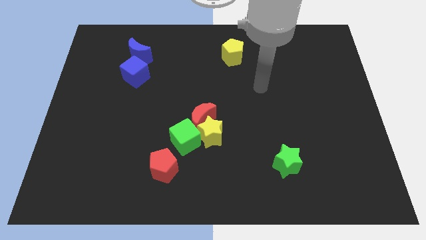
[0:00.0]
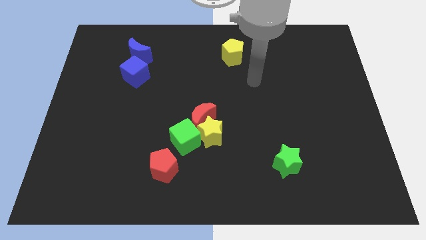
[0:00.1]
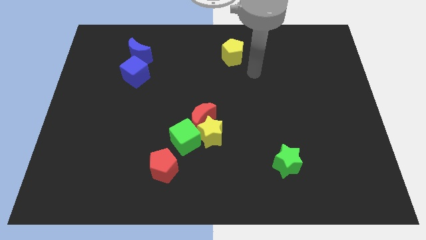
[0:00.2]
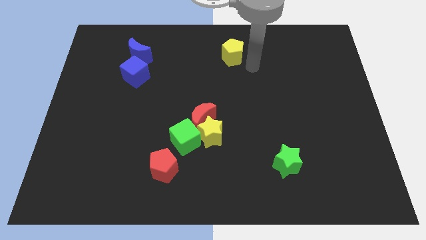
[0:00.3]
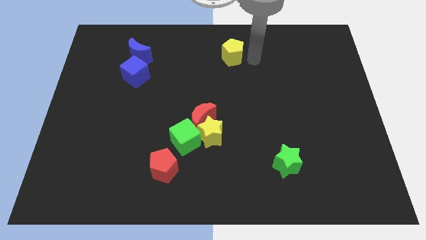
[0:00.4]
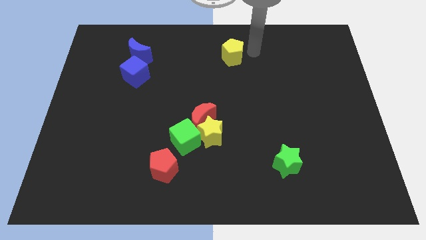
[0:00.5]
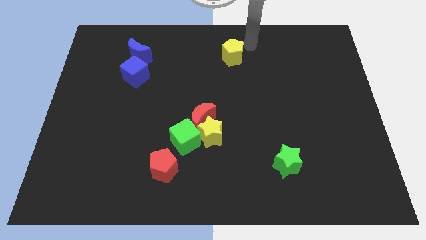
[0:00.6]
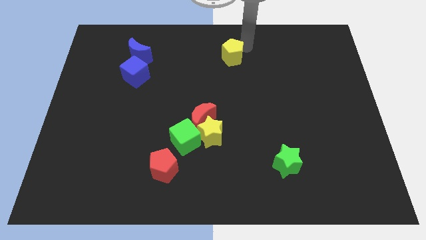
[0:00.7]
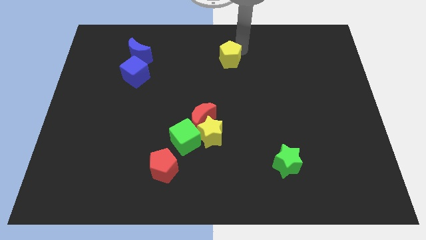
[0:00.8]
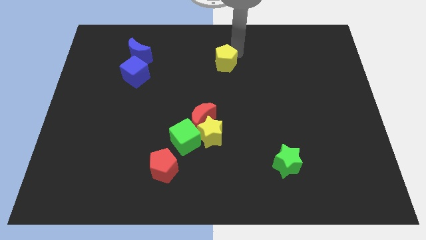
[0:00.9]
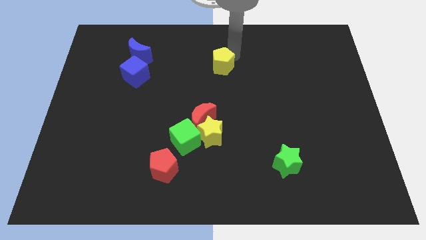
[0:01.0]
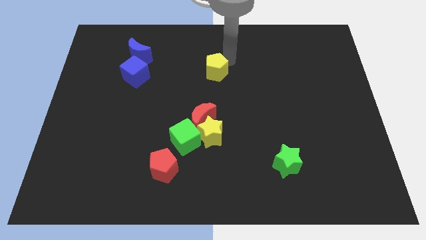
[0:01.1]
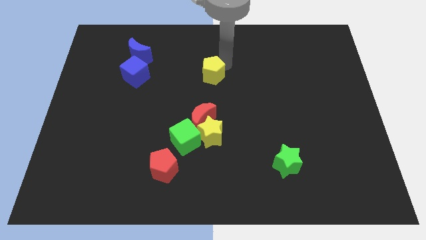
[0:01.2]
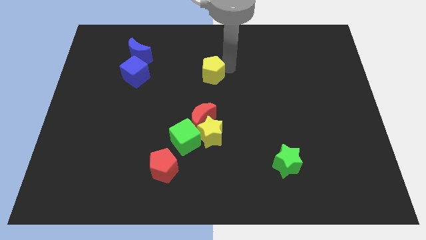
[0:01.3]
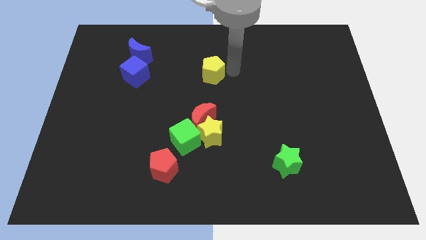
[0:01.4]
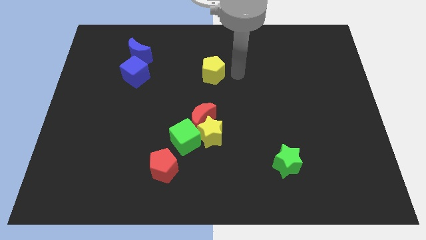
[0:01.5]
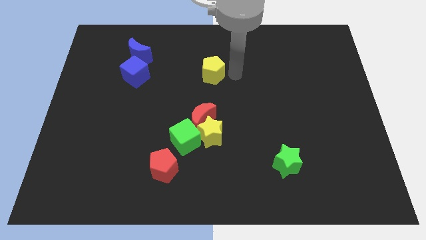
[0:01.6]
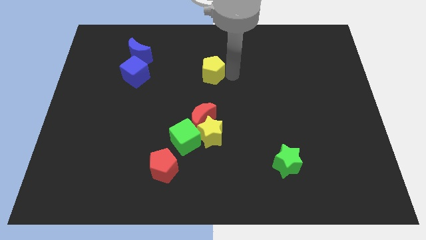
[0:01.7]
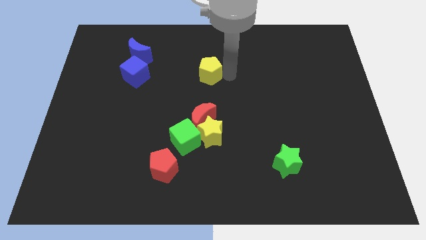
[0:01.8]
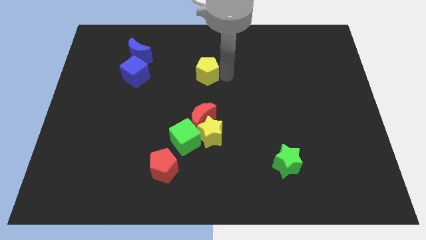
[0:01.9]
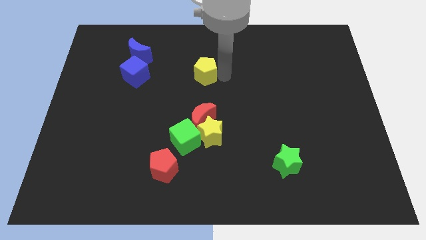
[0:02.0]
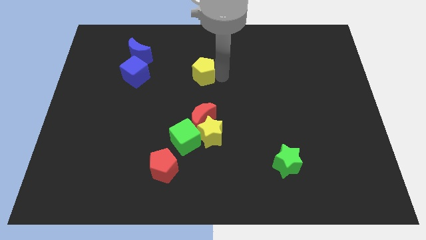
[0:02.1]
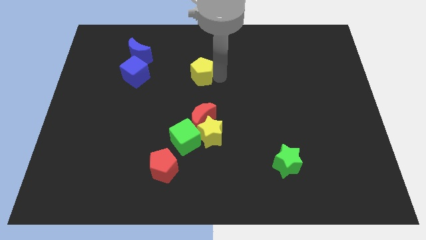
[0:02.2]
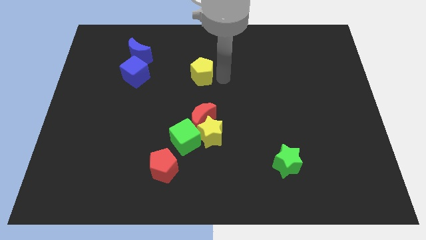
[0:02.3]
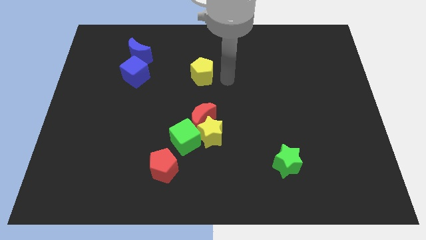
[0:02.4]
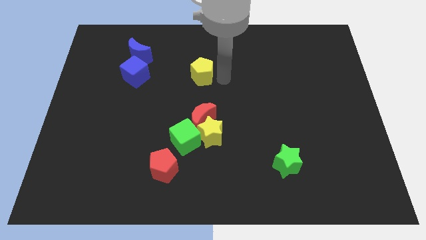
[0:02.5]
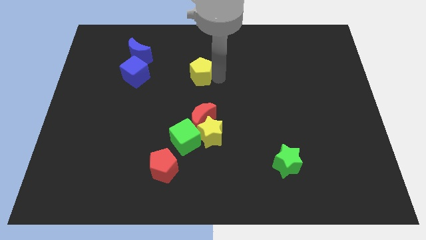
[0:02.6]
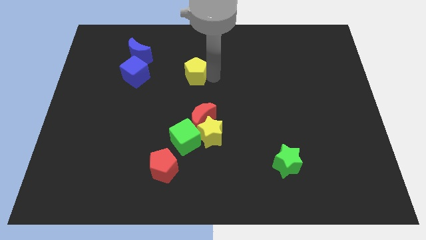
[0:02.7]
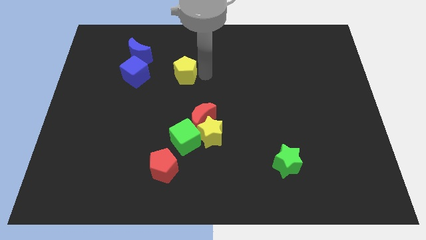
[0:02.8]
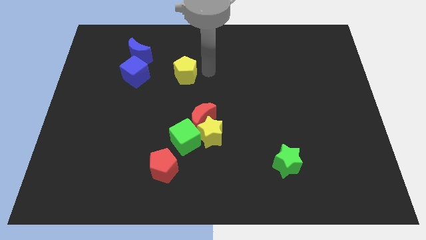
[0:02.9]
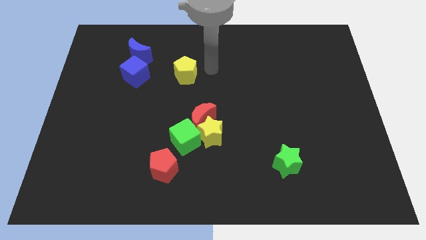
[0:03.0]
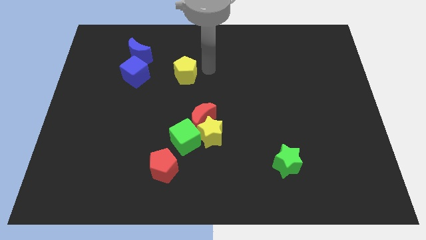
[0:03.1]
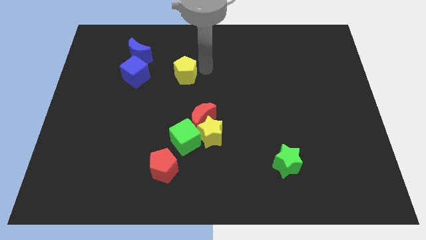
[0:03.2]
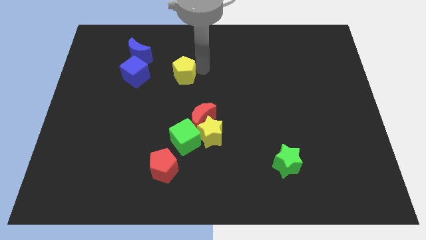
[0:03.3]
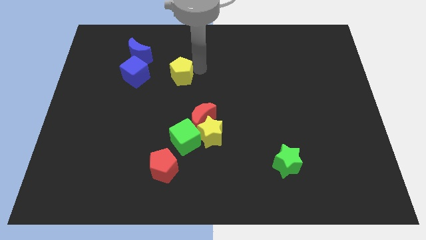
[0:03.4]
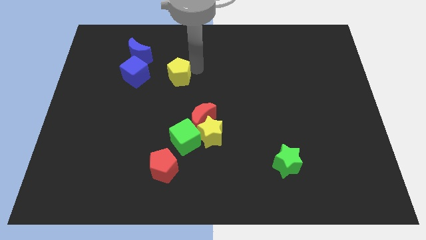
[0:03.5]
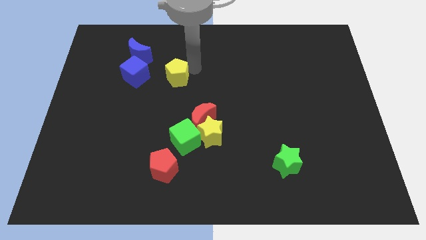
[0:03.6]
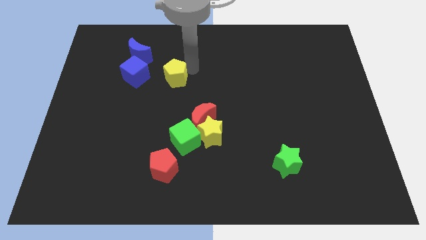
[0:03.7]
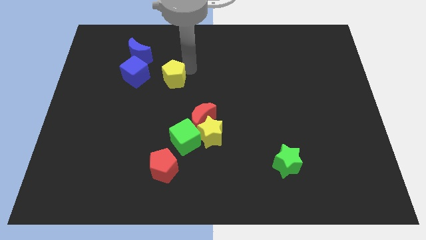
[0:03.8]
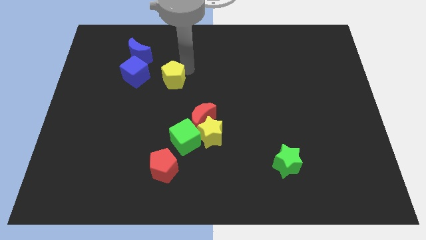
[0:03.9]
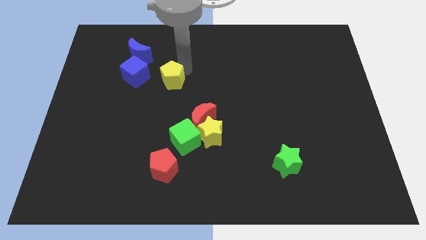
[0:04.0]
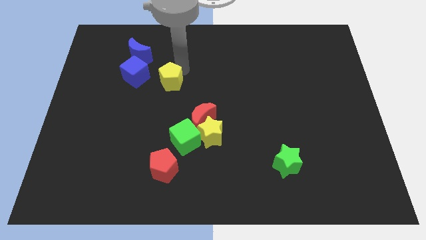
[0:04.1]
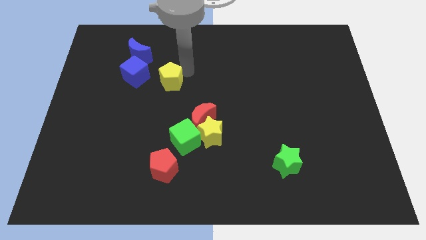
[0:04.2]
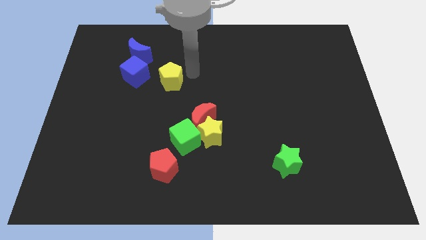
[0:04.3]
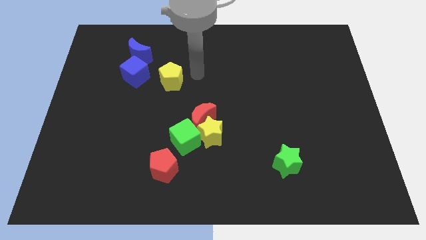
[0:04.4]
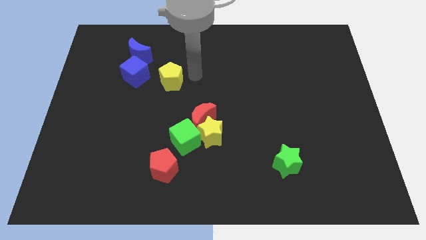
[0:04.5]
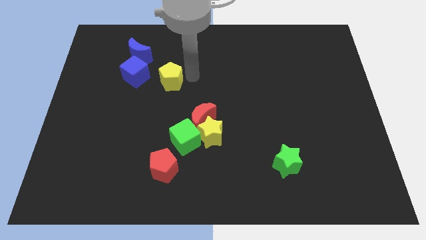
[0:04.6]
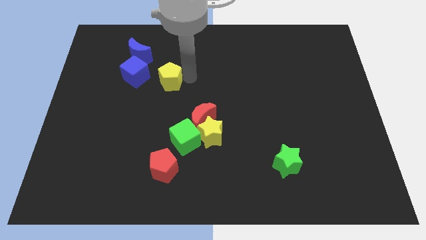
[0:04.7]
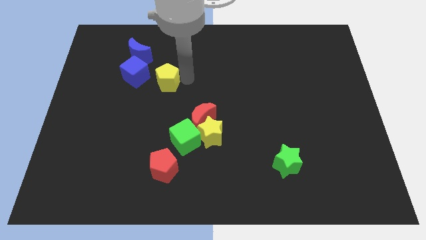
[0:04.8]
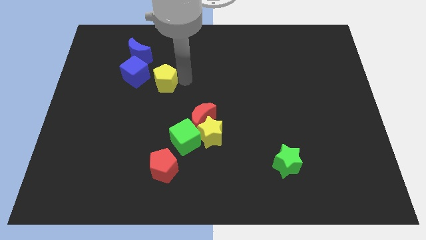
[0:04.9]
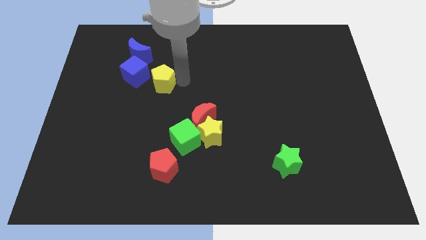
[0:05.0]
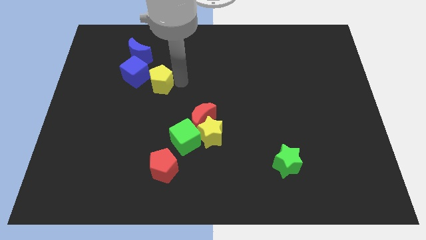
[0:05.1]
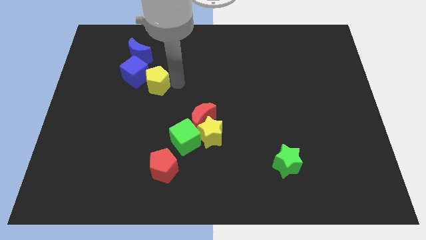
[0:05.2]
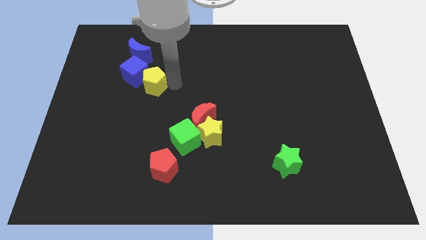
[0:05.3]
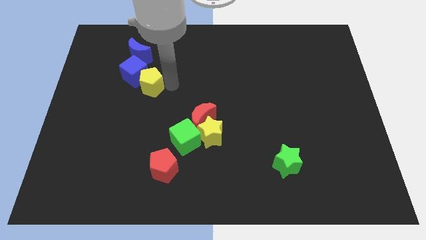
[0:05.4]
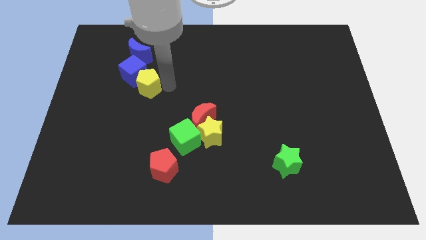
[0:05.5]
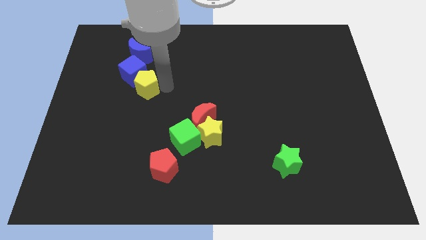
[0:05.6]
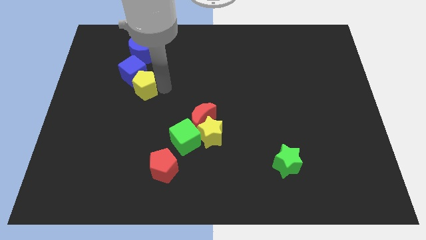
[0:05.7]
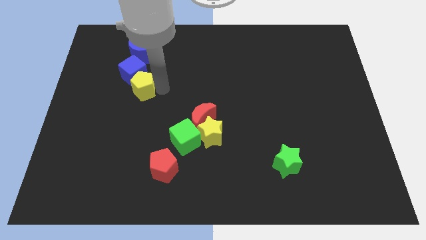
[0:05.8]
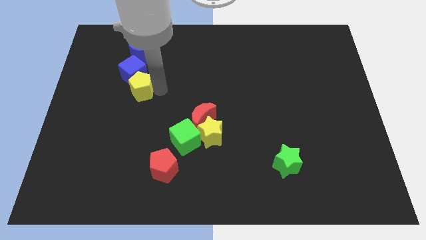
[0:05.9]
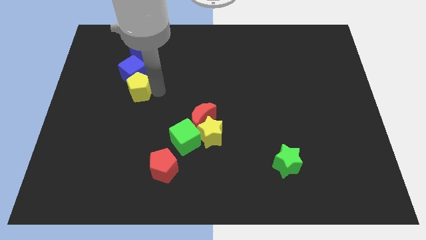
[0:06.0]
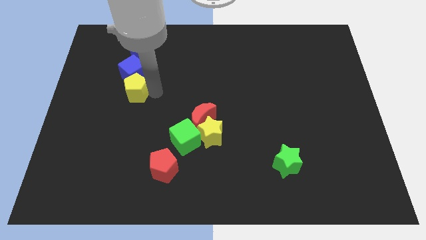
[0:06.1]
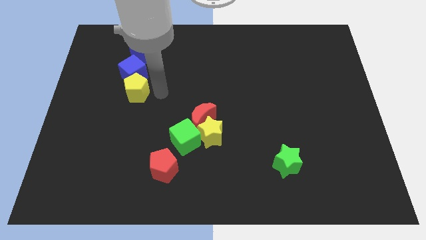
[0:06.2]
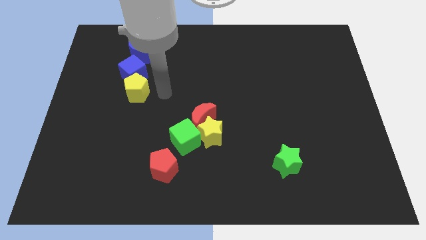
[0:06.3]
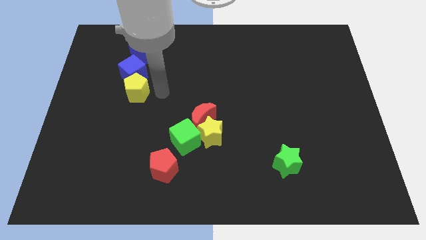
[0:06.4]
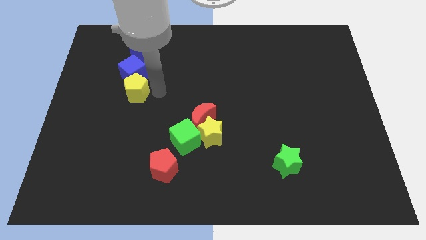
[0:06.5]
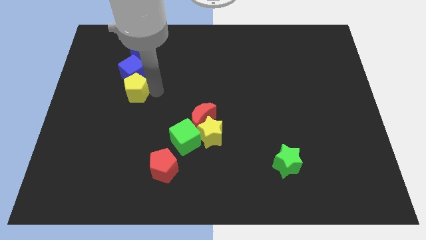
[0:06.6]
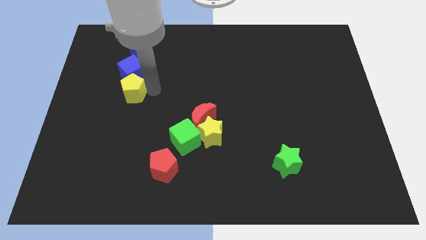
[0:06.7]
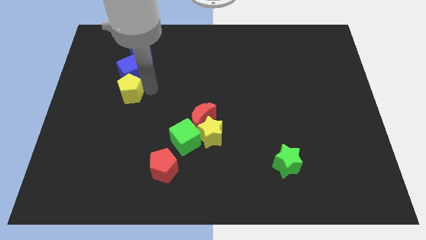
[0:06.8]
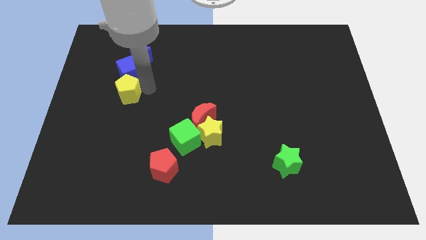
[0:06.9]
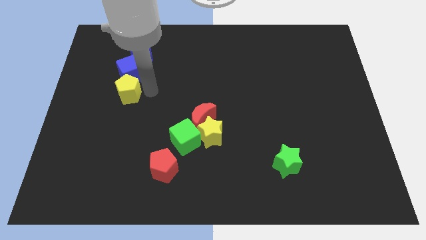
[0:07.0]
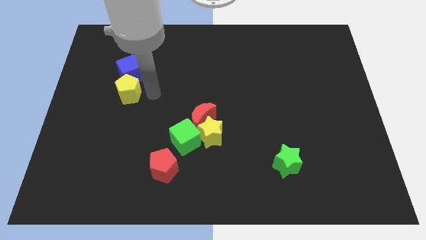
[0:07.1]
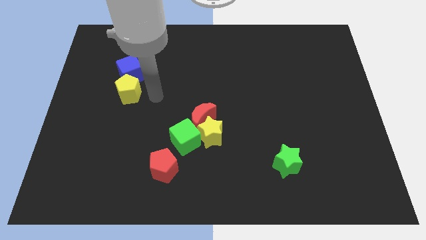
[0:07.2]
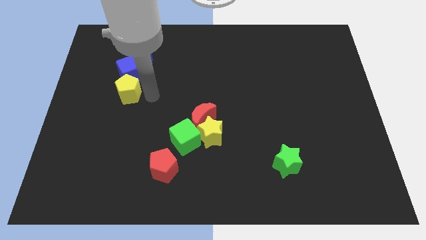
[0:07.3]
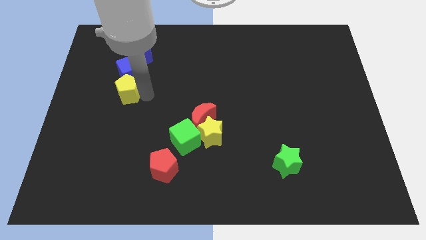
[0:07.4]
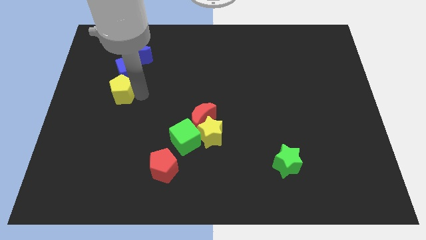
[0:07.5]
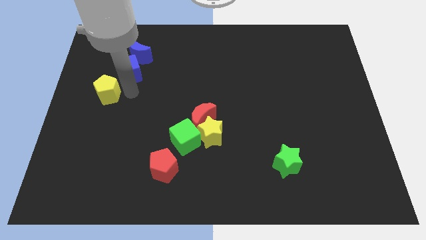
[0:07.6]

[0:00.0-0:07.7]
move the yellow pentagon to the left side of the board
